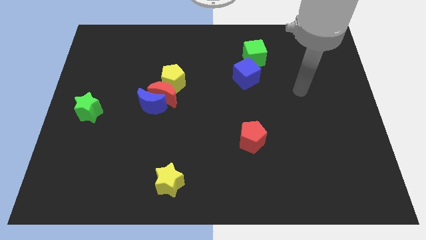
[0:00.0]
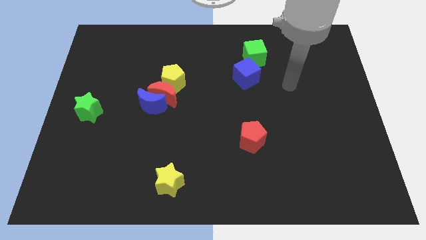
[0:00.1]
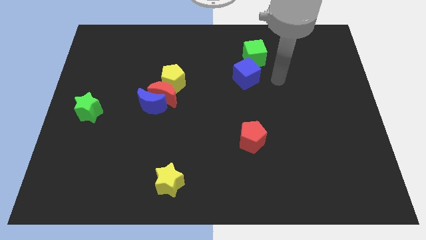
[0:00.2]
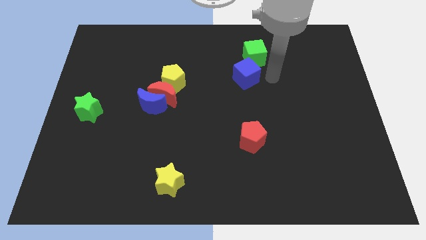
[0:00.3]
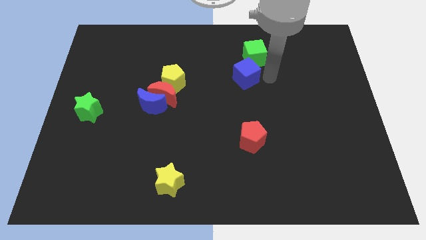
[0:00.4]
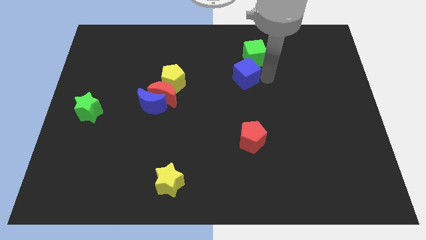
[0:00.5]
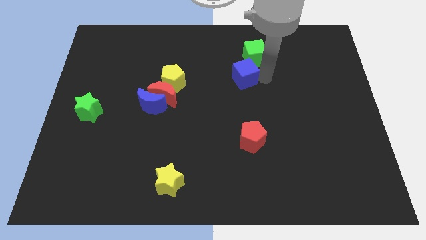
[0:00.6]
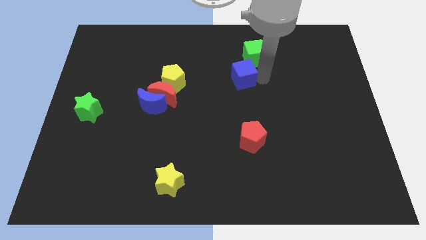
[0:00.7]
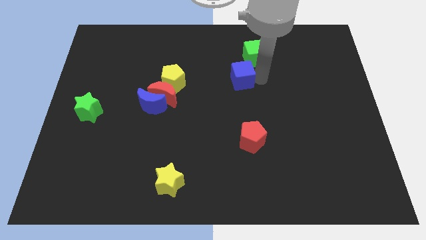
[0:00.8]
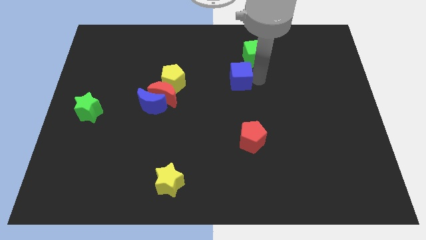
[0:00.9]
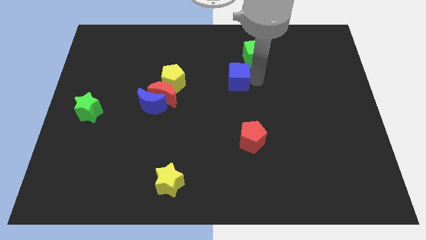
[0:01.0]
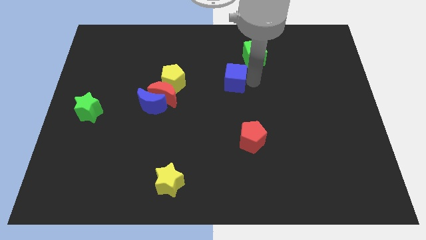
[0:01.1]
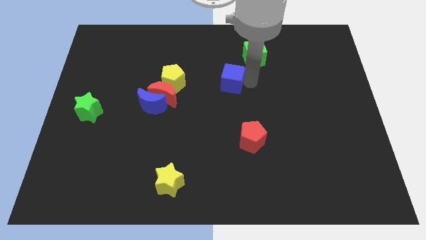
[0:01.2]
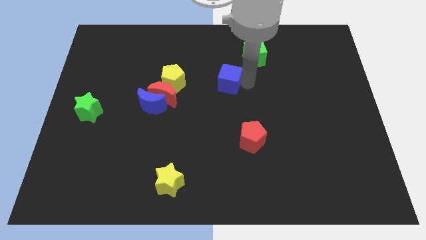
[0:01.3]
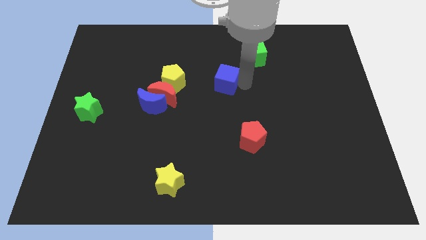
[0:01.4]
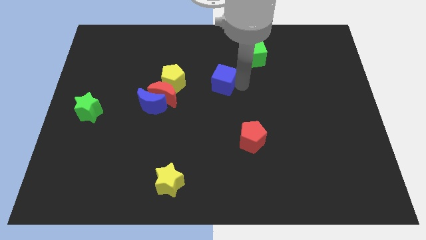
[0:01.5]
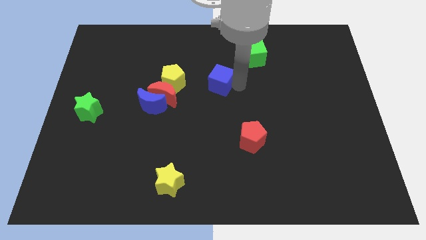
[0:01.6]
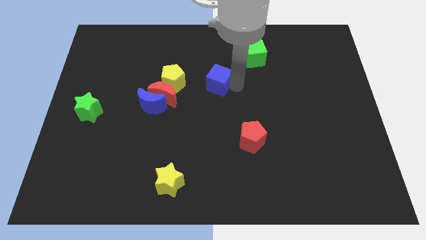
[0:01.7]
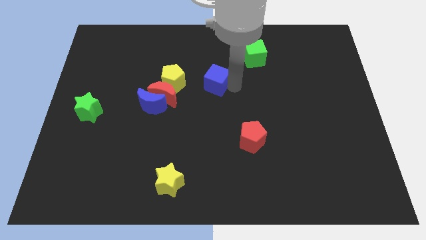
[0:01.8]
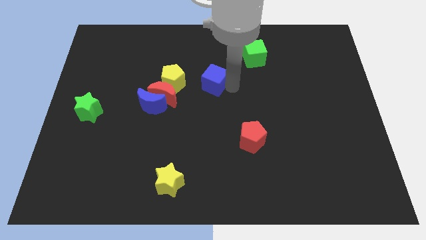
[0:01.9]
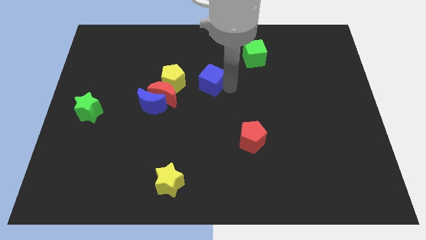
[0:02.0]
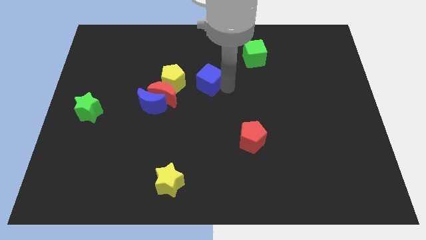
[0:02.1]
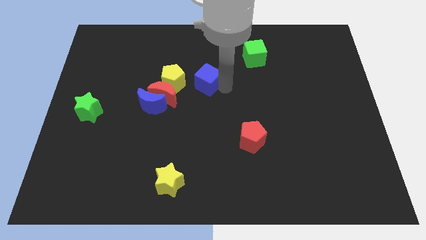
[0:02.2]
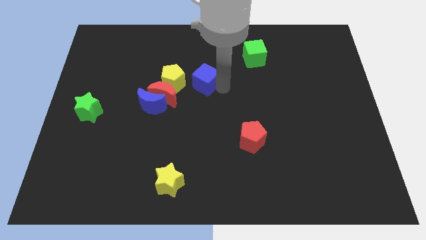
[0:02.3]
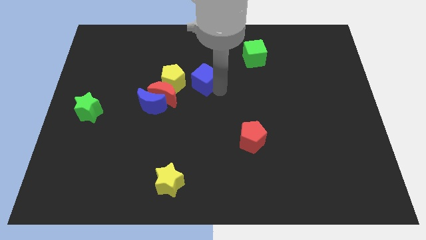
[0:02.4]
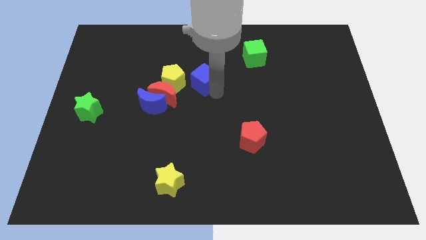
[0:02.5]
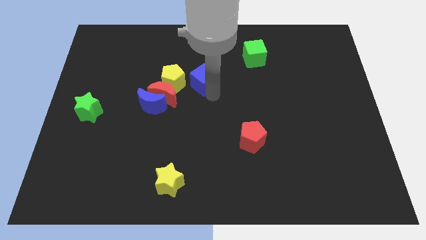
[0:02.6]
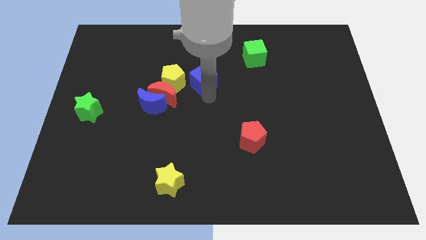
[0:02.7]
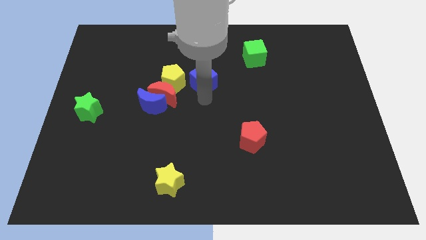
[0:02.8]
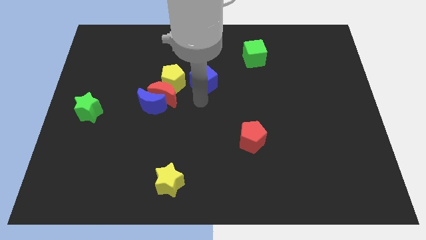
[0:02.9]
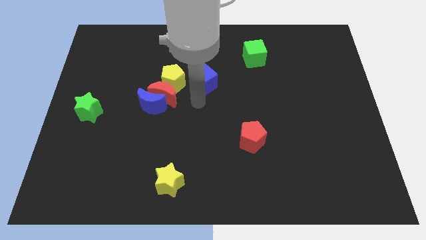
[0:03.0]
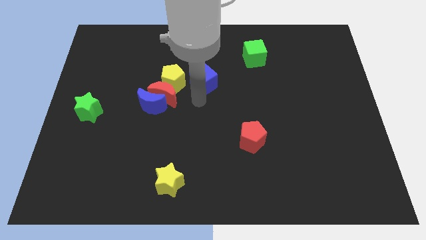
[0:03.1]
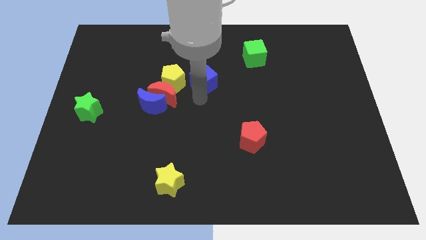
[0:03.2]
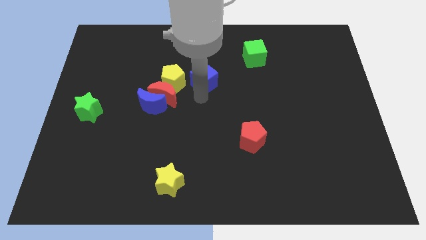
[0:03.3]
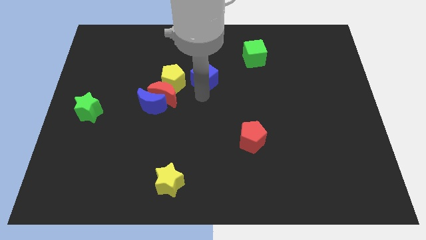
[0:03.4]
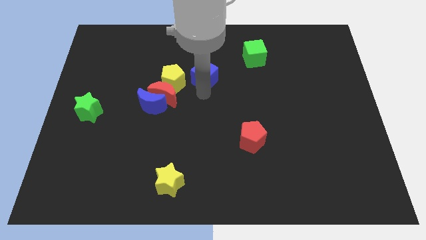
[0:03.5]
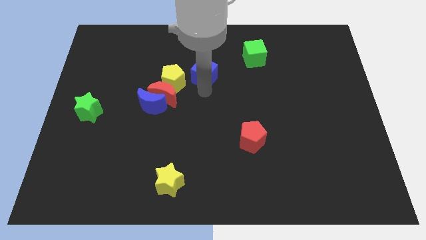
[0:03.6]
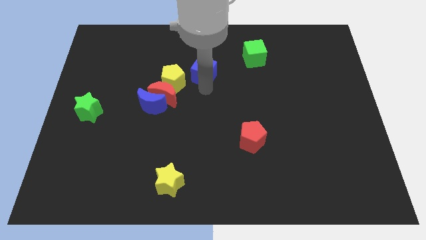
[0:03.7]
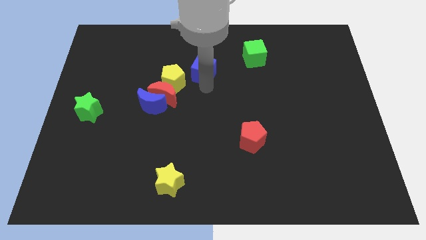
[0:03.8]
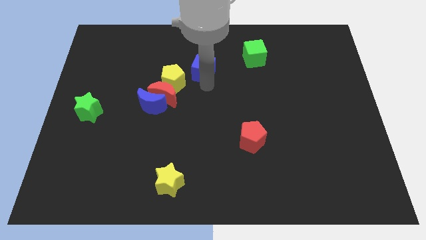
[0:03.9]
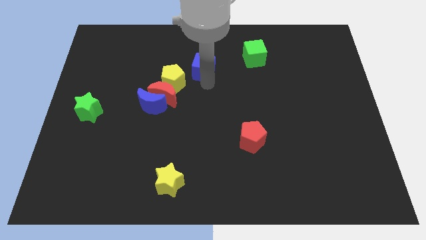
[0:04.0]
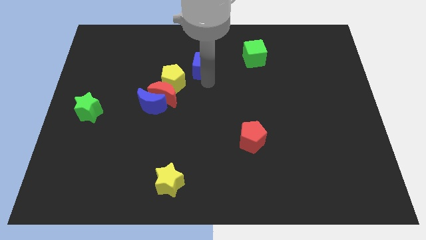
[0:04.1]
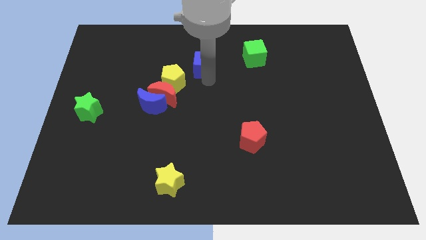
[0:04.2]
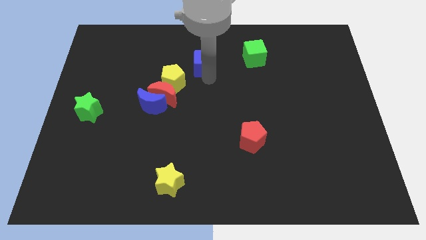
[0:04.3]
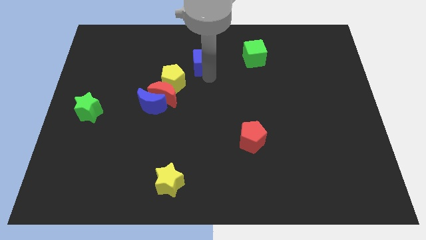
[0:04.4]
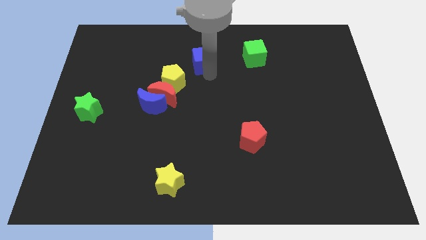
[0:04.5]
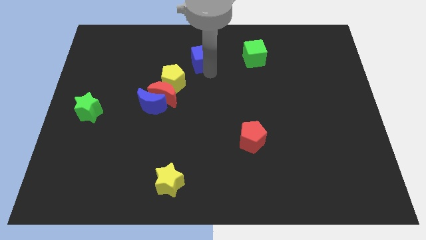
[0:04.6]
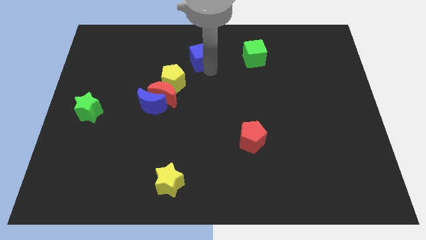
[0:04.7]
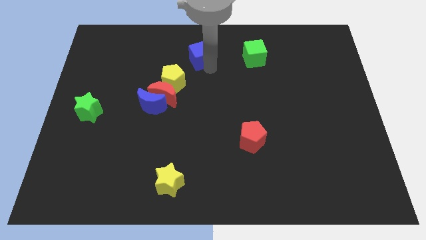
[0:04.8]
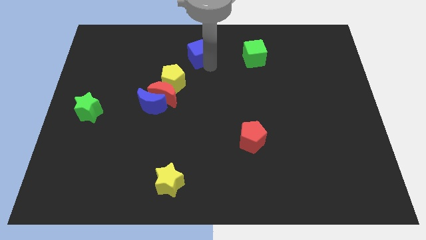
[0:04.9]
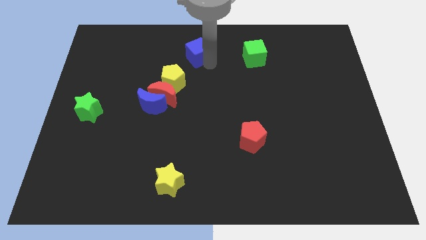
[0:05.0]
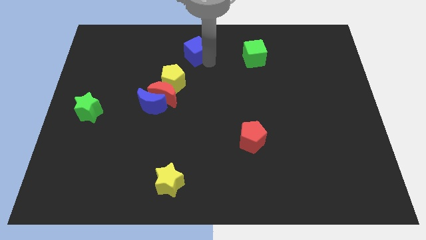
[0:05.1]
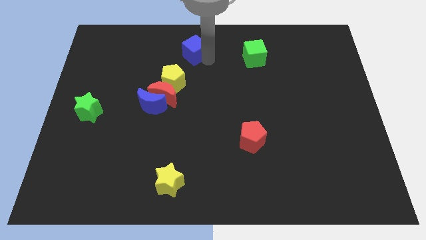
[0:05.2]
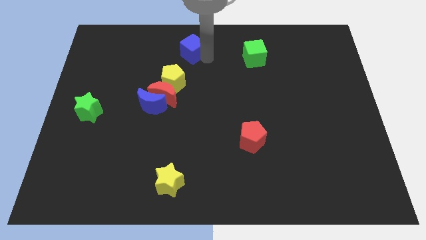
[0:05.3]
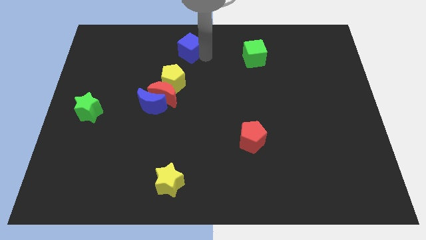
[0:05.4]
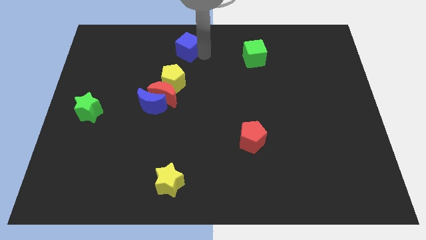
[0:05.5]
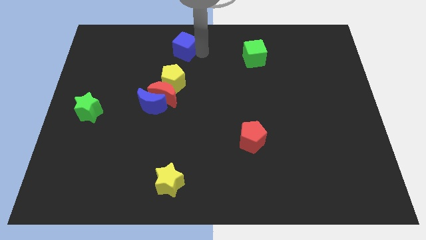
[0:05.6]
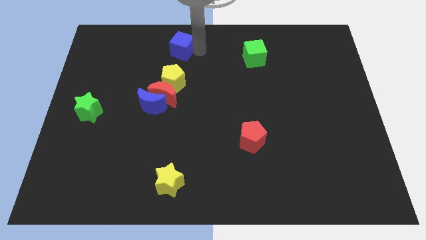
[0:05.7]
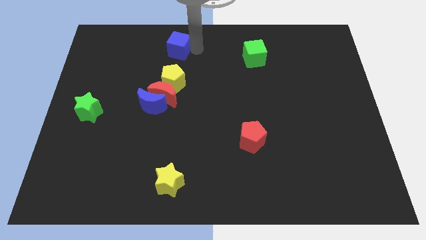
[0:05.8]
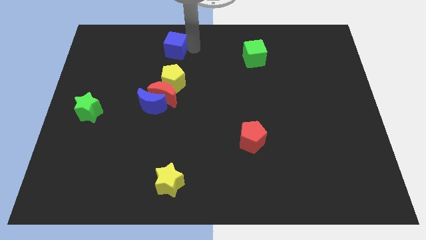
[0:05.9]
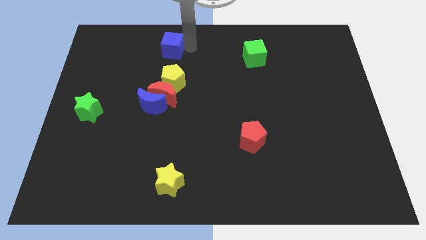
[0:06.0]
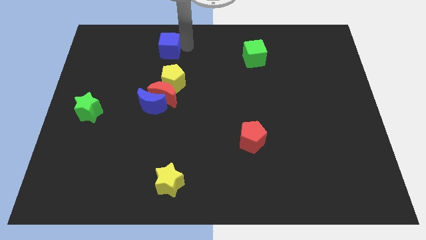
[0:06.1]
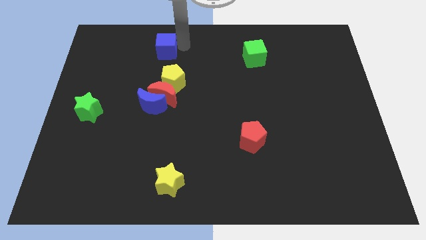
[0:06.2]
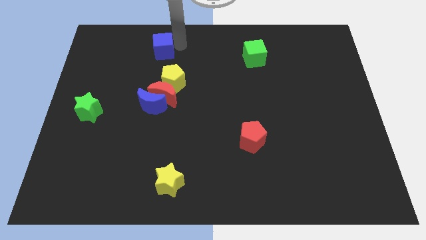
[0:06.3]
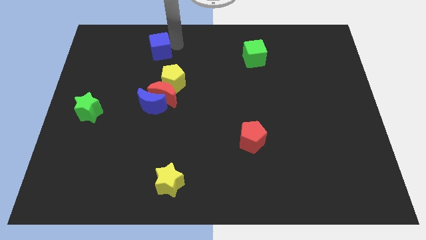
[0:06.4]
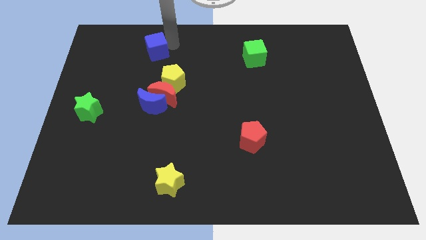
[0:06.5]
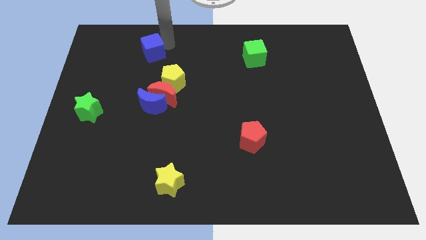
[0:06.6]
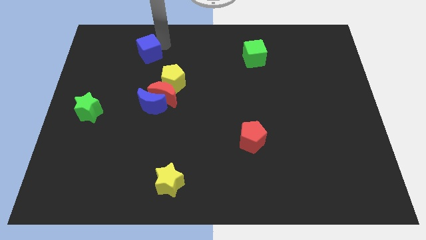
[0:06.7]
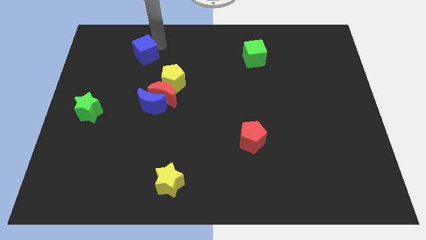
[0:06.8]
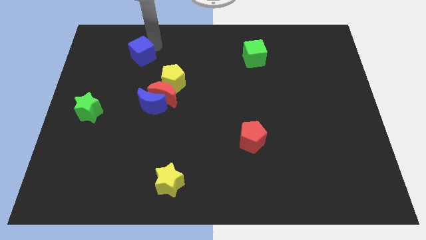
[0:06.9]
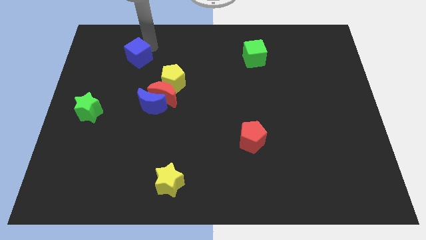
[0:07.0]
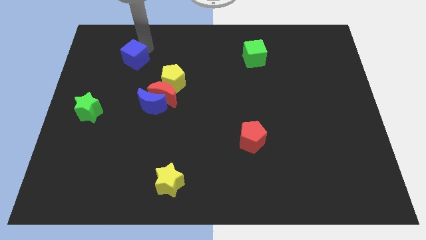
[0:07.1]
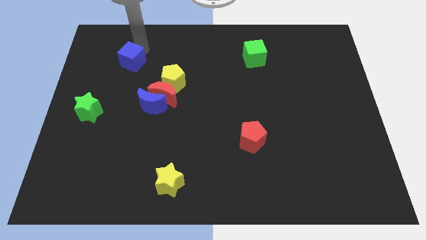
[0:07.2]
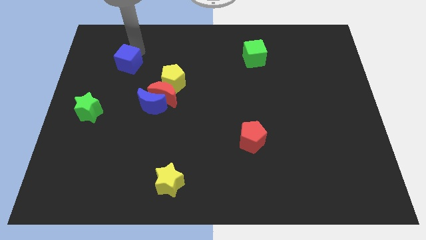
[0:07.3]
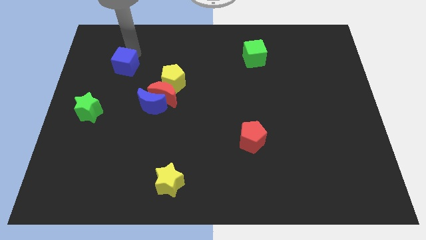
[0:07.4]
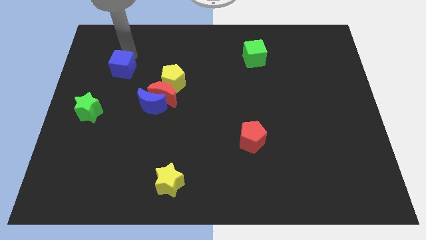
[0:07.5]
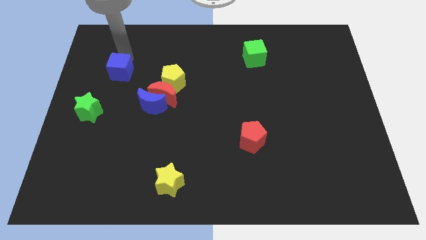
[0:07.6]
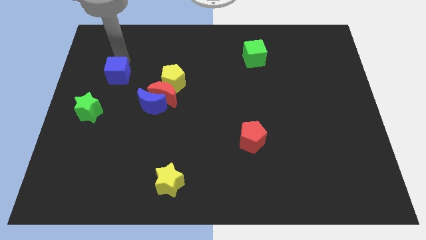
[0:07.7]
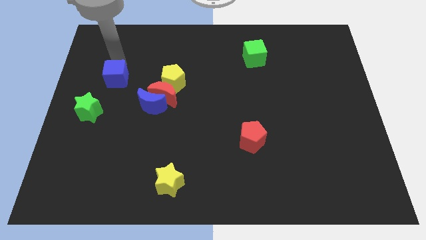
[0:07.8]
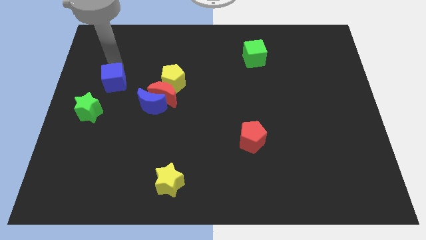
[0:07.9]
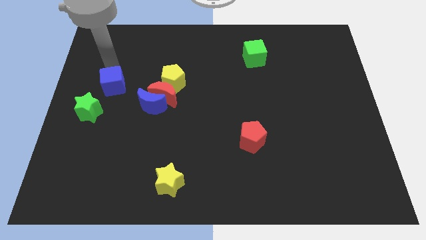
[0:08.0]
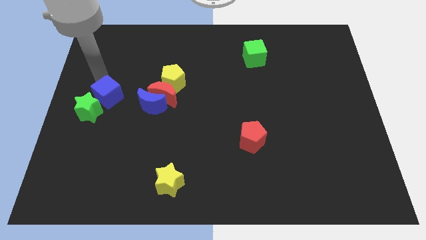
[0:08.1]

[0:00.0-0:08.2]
push the blue cube to the green star
